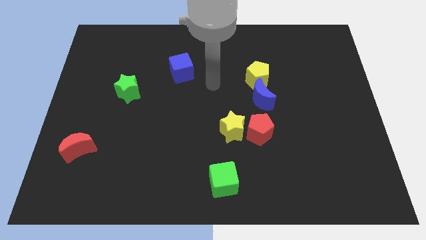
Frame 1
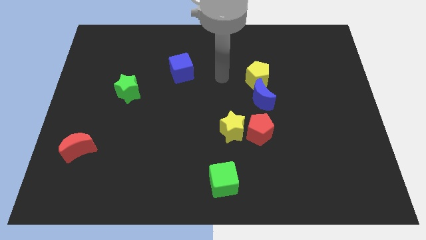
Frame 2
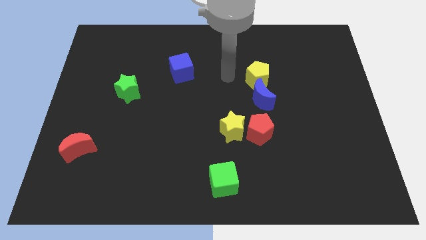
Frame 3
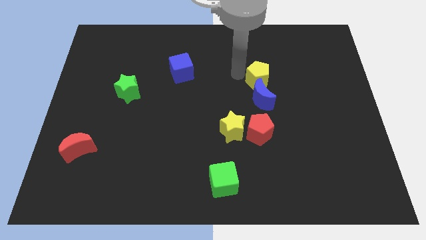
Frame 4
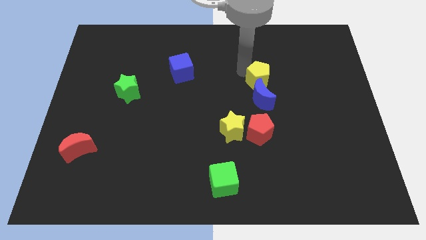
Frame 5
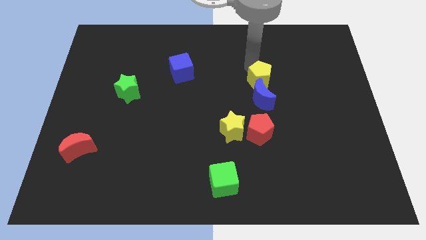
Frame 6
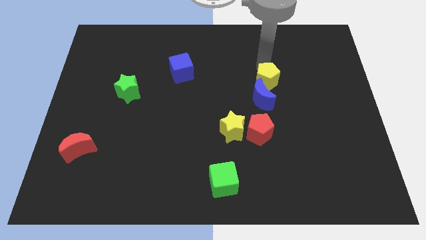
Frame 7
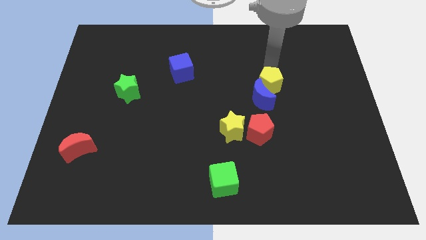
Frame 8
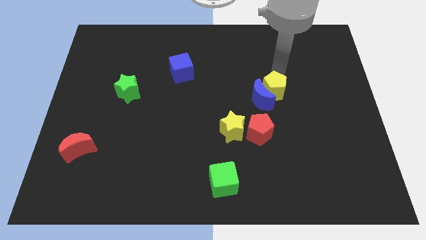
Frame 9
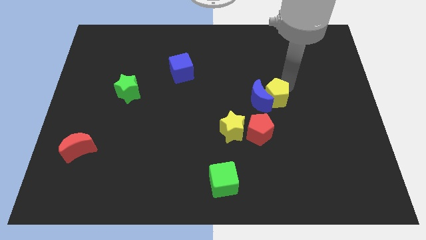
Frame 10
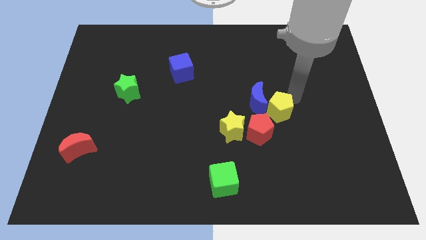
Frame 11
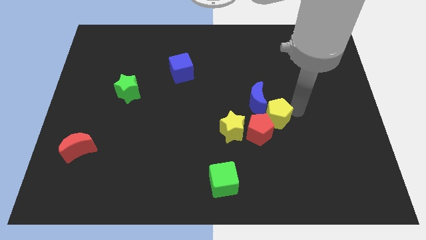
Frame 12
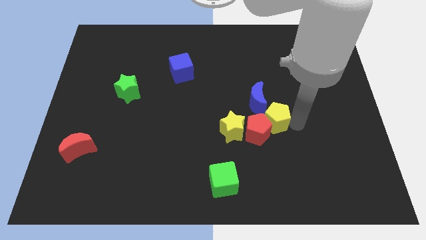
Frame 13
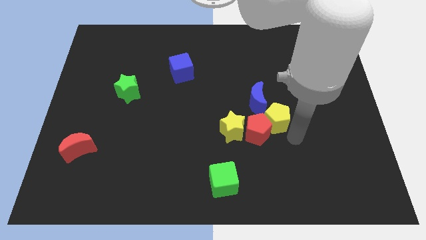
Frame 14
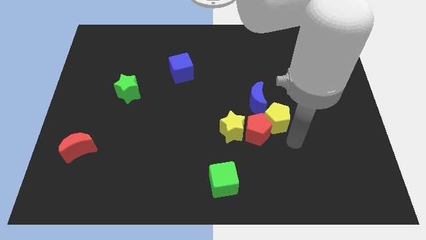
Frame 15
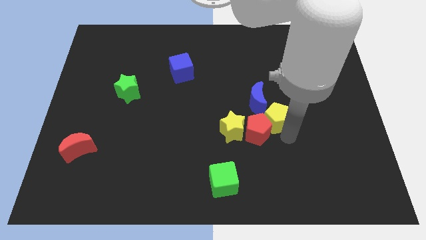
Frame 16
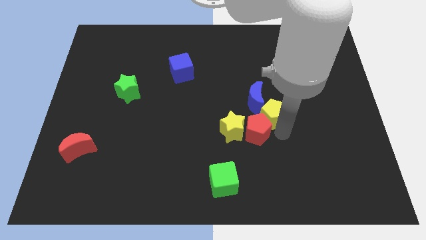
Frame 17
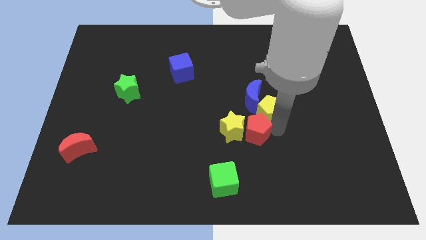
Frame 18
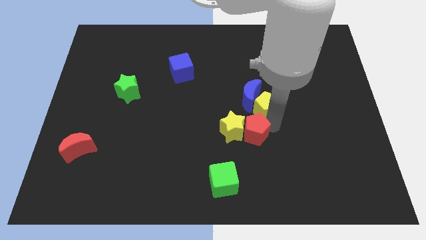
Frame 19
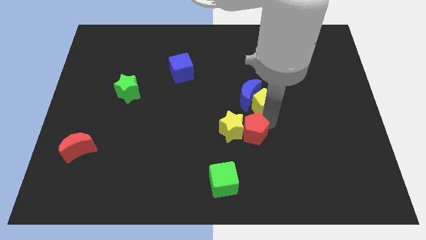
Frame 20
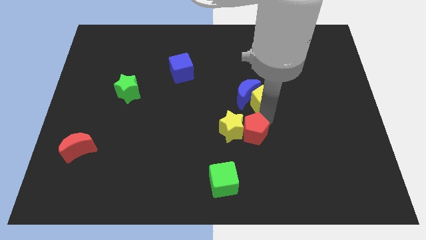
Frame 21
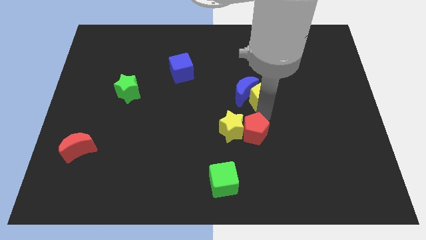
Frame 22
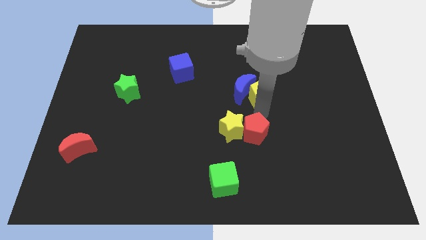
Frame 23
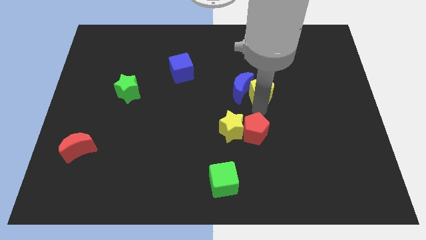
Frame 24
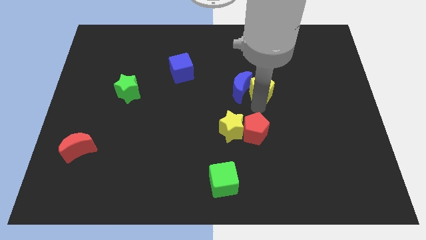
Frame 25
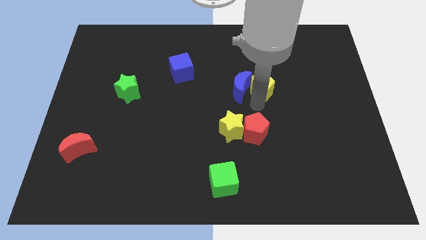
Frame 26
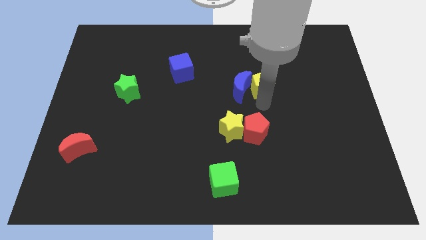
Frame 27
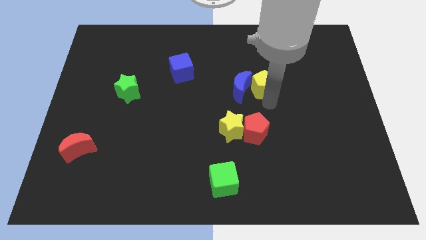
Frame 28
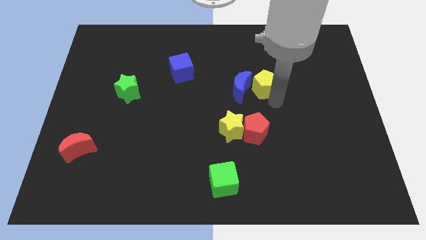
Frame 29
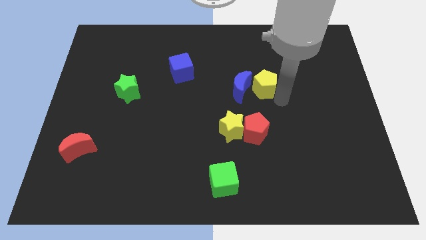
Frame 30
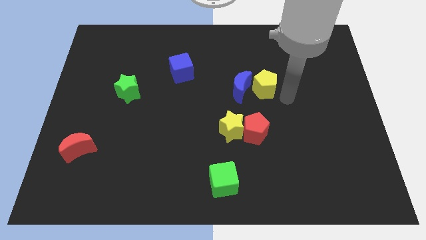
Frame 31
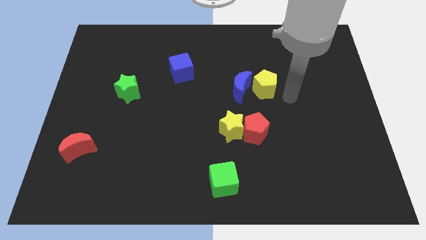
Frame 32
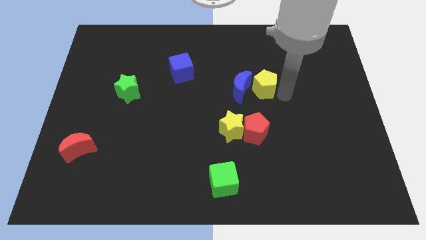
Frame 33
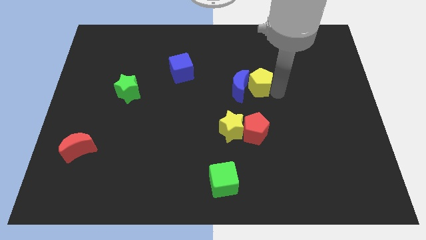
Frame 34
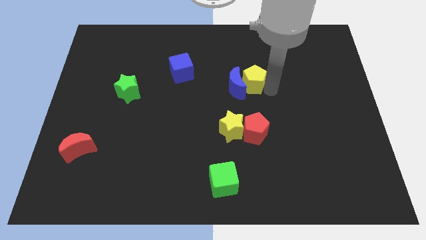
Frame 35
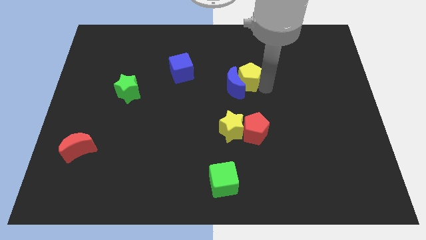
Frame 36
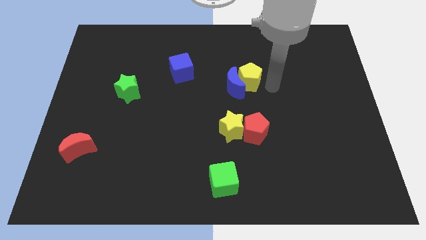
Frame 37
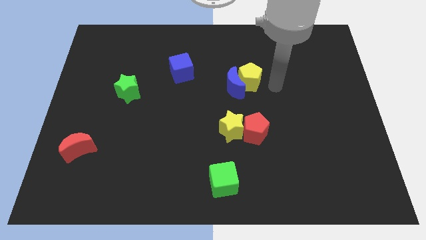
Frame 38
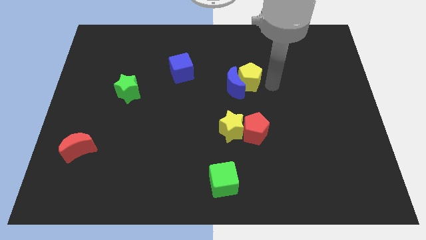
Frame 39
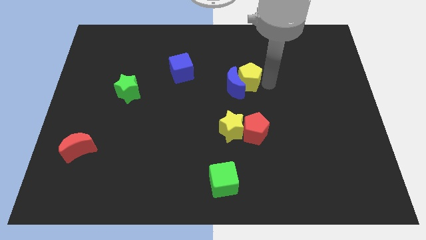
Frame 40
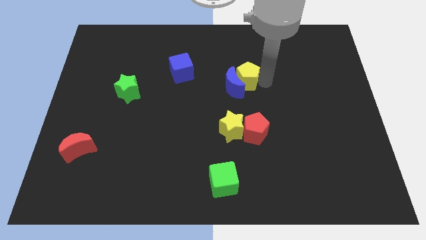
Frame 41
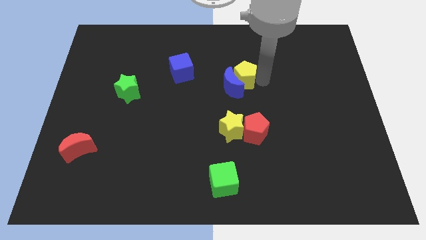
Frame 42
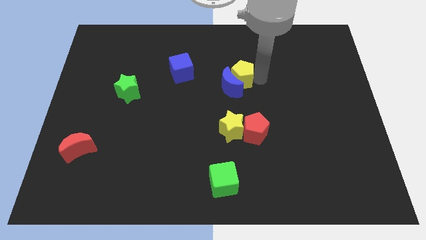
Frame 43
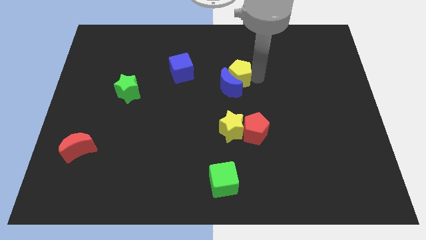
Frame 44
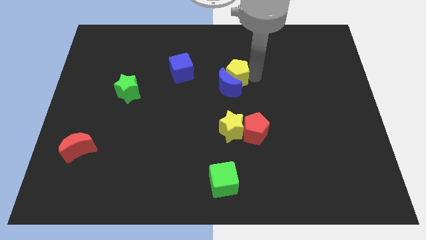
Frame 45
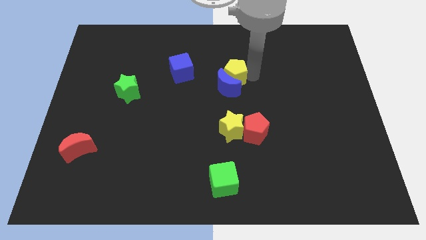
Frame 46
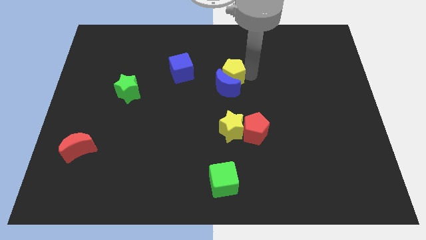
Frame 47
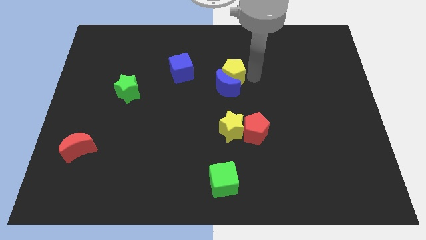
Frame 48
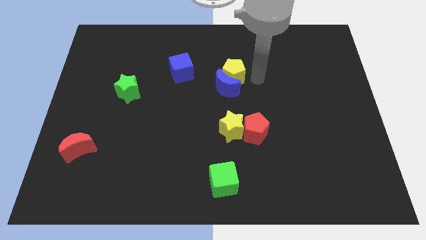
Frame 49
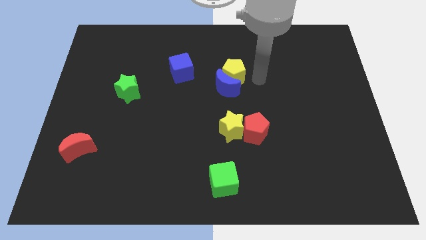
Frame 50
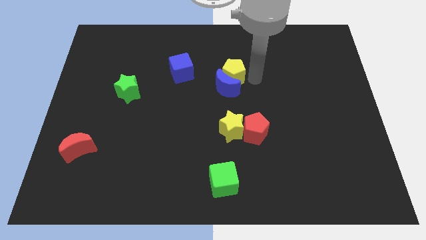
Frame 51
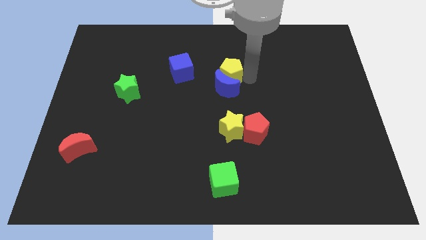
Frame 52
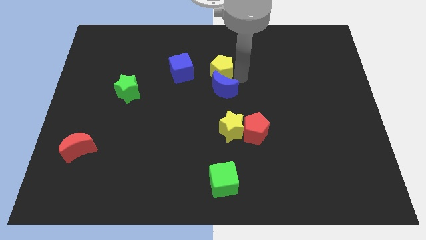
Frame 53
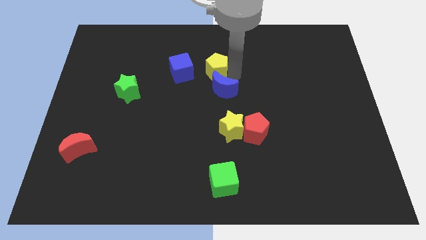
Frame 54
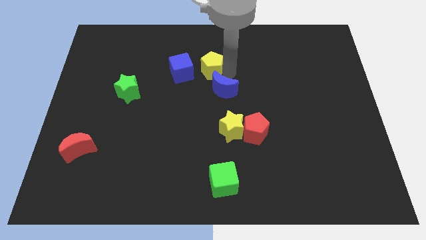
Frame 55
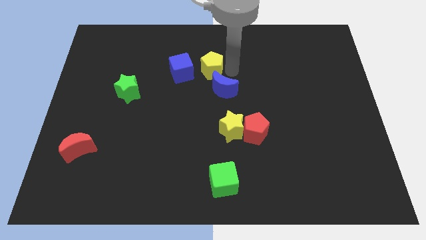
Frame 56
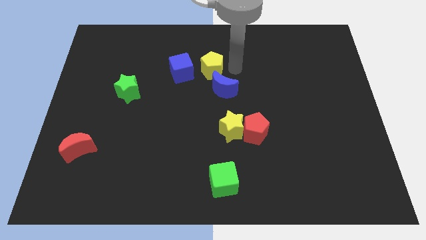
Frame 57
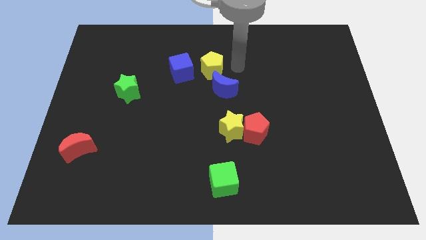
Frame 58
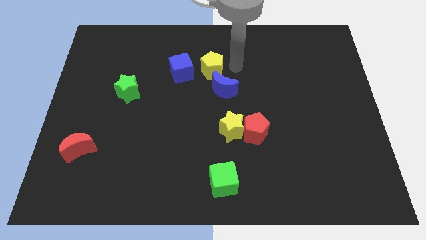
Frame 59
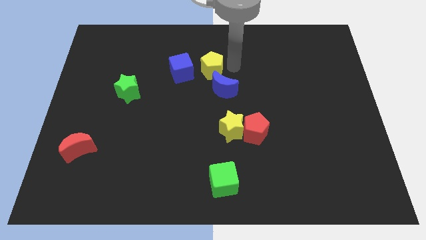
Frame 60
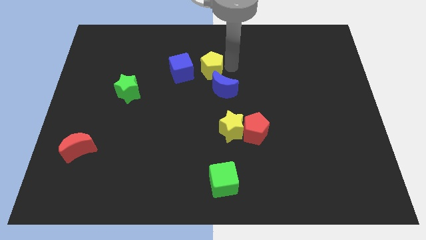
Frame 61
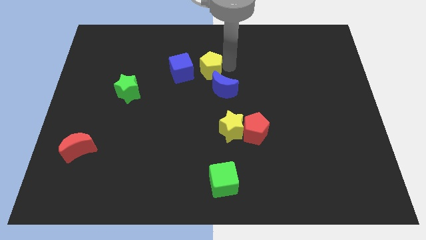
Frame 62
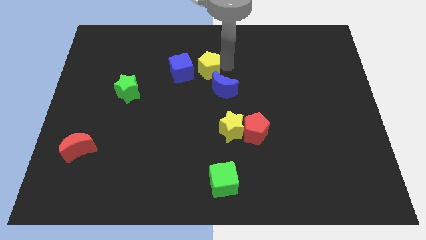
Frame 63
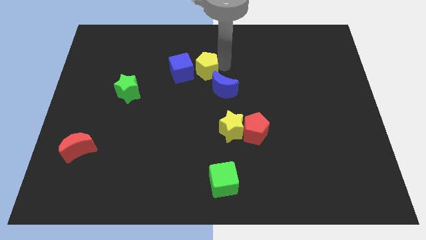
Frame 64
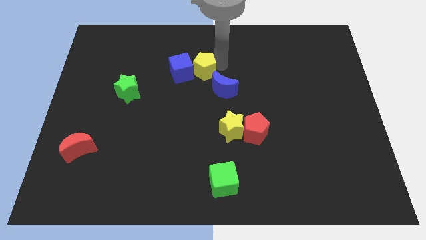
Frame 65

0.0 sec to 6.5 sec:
move the yellow pentagon next to the blue cube

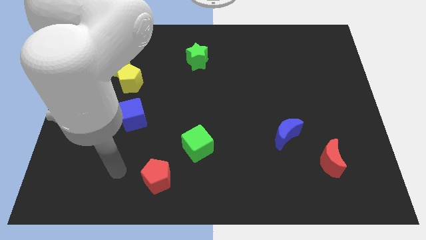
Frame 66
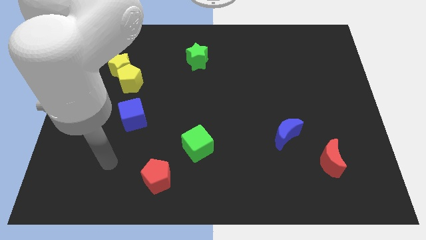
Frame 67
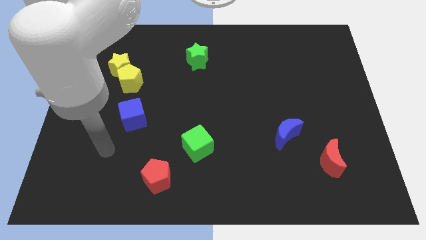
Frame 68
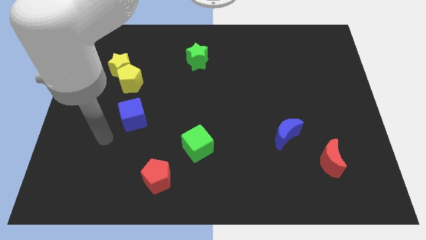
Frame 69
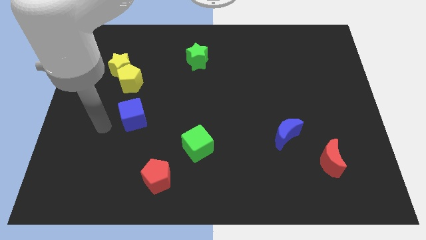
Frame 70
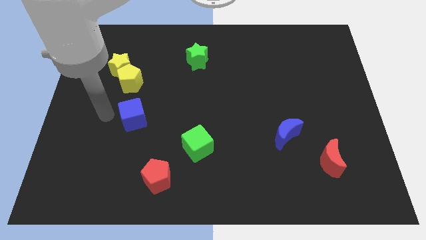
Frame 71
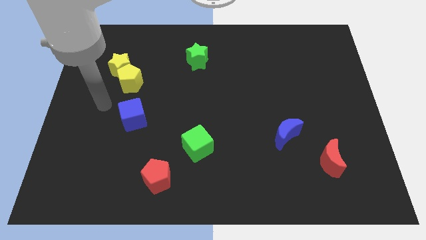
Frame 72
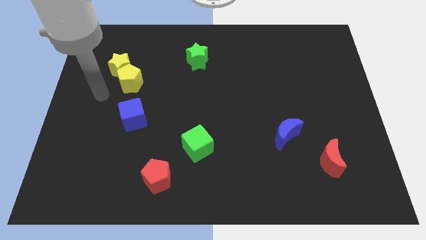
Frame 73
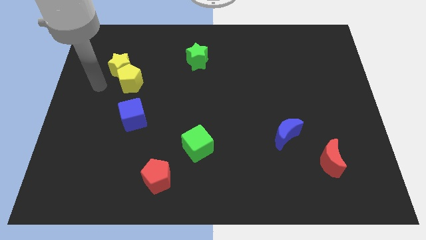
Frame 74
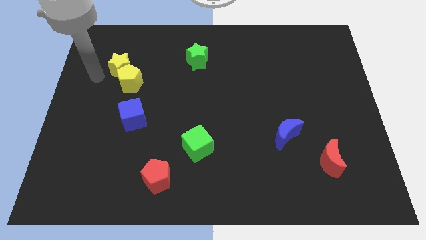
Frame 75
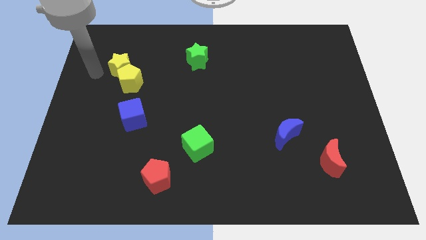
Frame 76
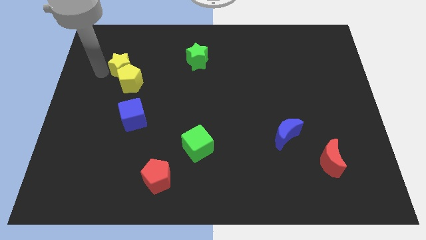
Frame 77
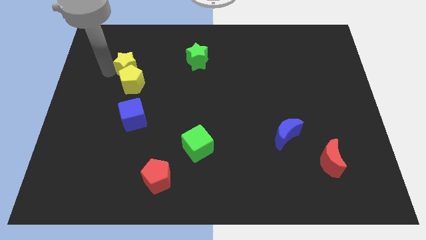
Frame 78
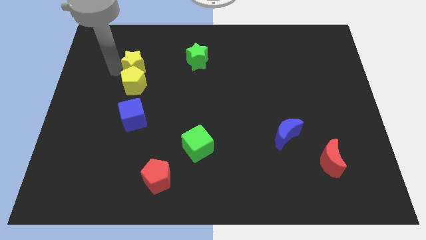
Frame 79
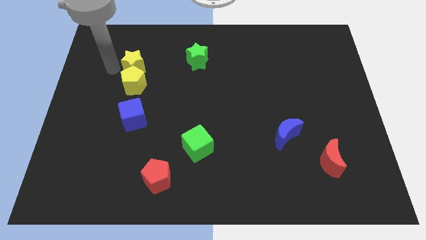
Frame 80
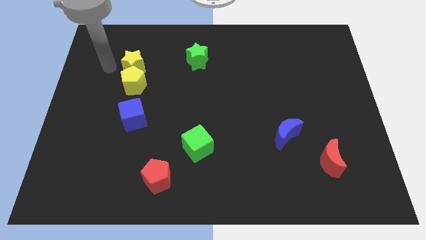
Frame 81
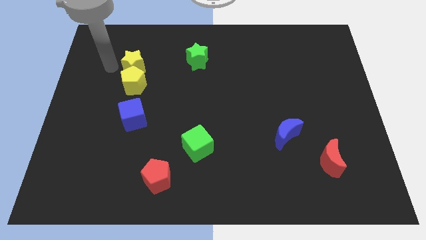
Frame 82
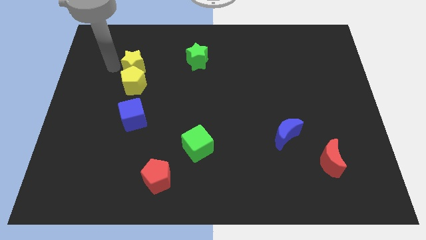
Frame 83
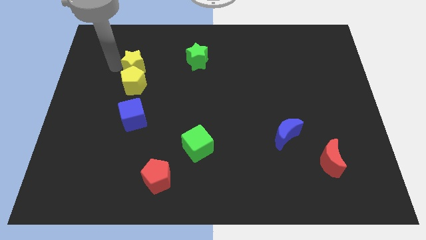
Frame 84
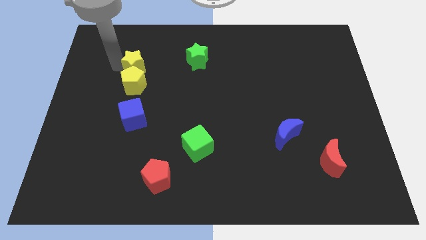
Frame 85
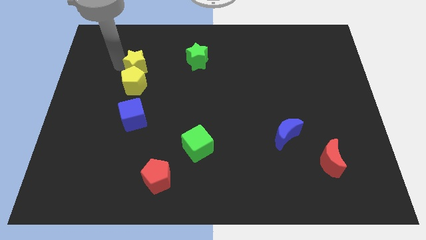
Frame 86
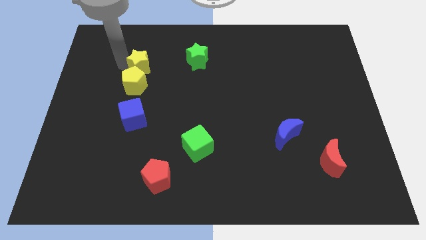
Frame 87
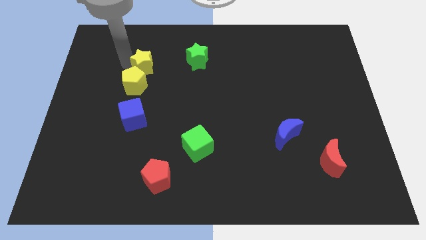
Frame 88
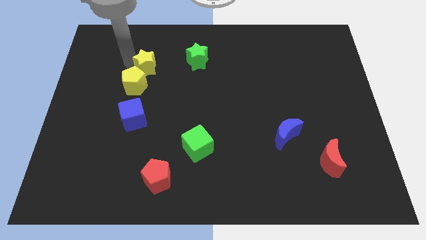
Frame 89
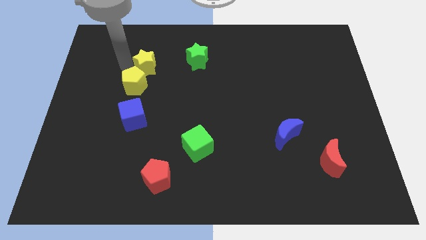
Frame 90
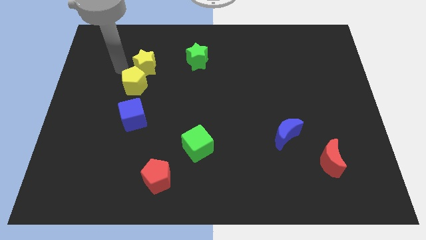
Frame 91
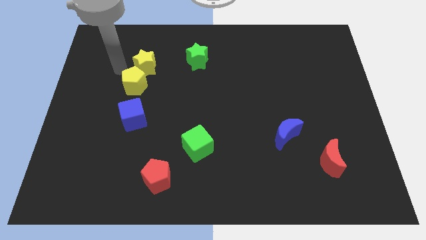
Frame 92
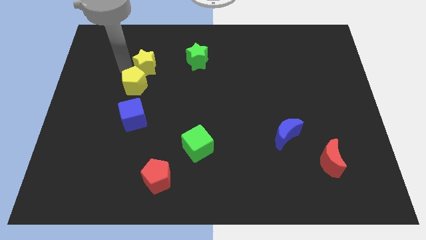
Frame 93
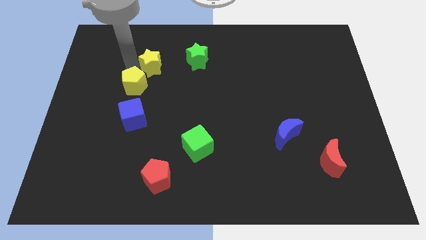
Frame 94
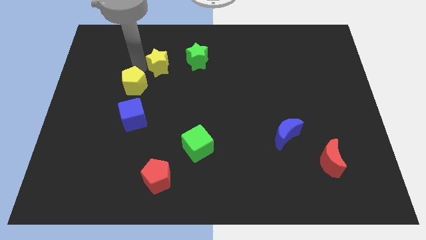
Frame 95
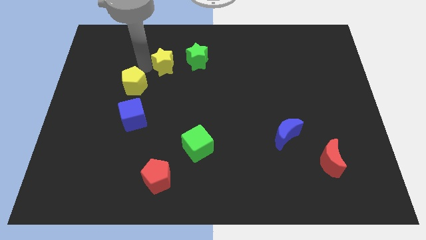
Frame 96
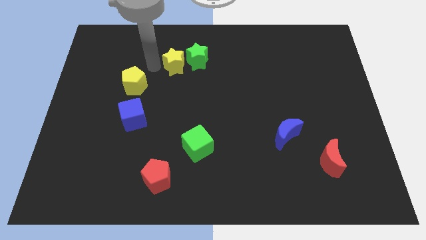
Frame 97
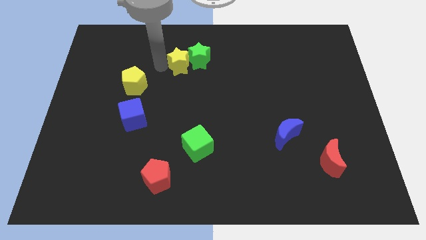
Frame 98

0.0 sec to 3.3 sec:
put the yellow star to the green star
